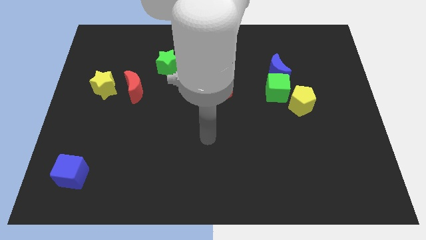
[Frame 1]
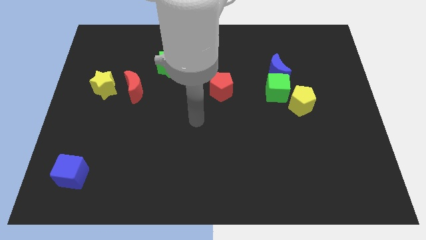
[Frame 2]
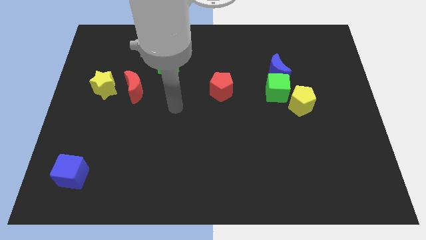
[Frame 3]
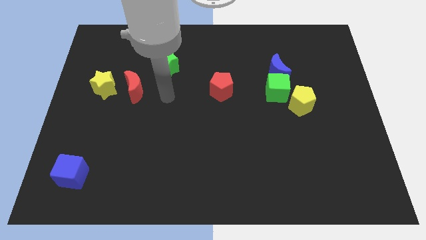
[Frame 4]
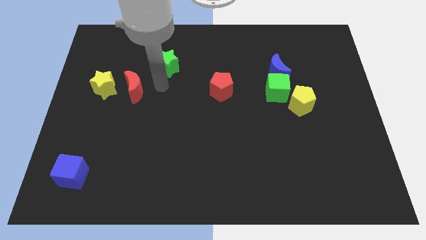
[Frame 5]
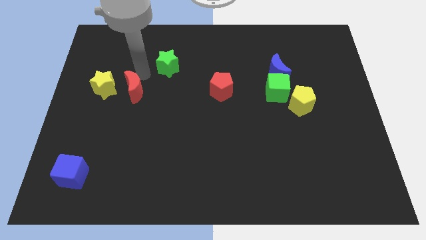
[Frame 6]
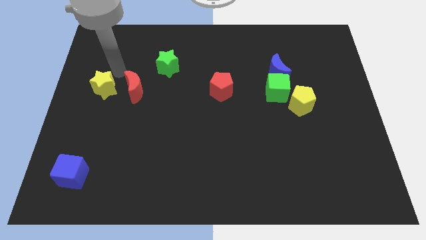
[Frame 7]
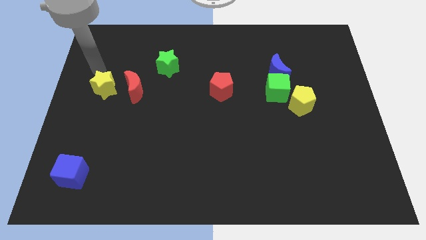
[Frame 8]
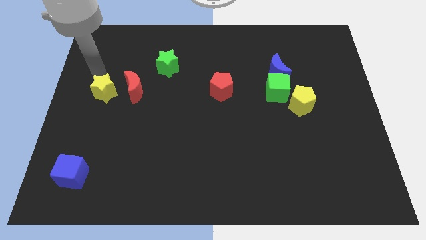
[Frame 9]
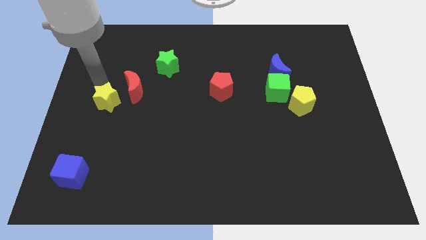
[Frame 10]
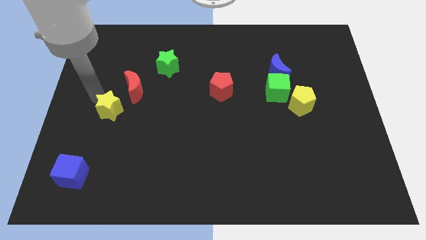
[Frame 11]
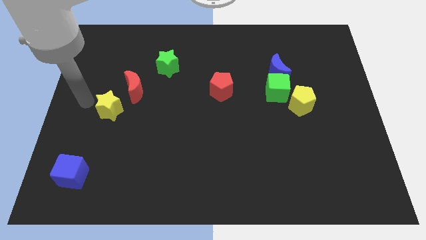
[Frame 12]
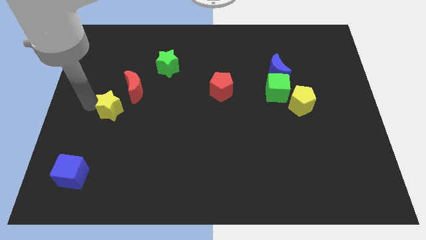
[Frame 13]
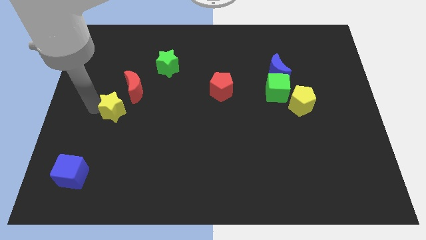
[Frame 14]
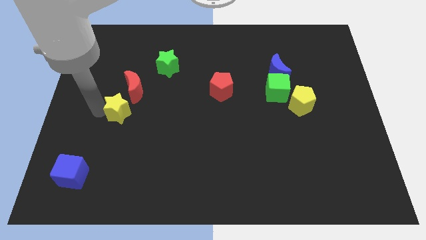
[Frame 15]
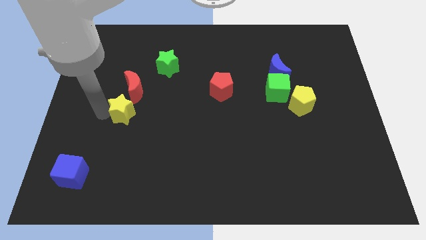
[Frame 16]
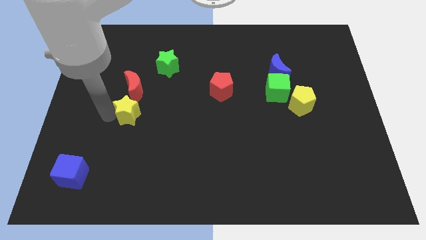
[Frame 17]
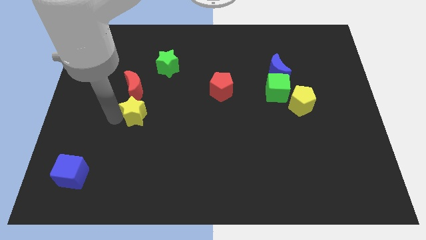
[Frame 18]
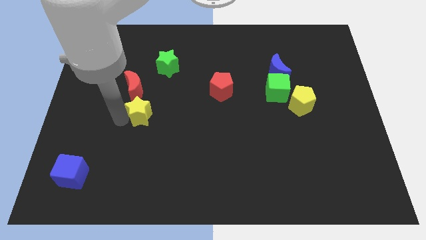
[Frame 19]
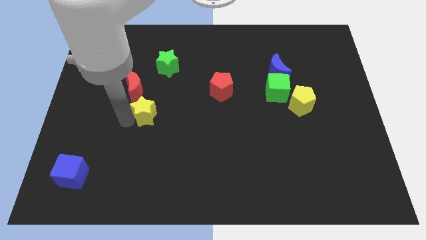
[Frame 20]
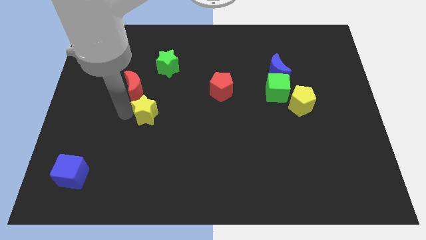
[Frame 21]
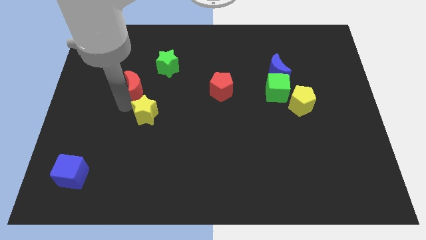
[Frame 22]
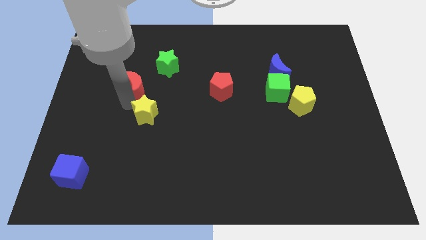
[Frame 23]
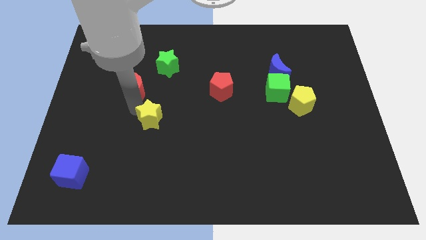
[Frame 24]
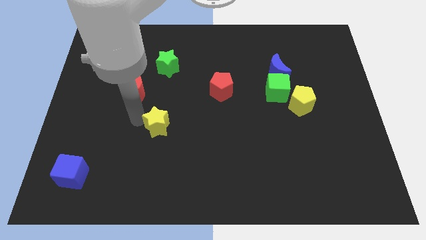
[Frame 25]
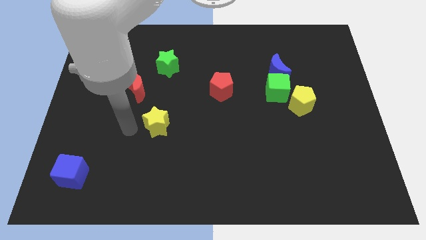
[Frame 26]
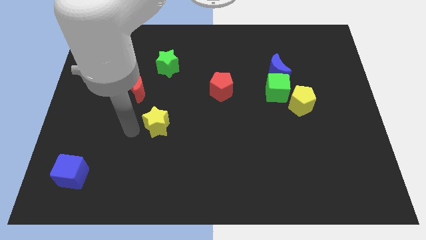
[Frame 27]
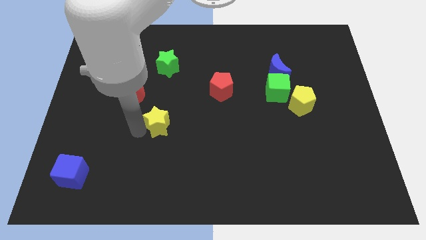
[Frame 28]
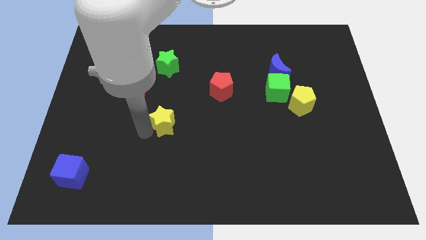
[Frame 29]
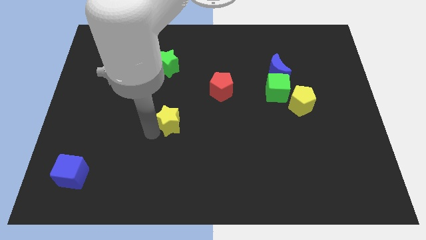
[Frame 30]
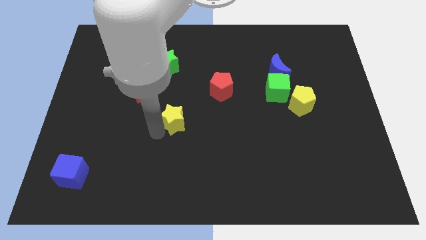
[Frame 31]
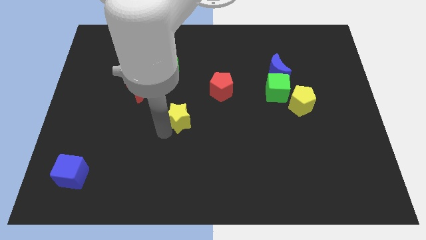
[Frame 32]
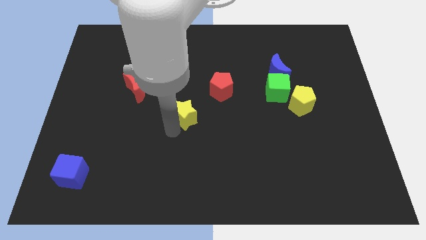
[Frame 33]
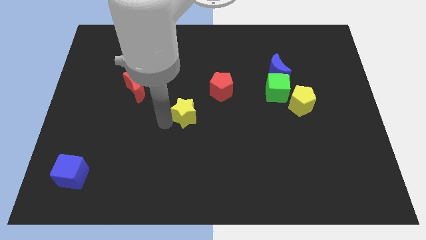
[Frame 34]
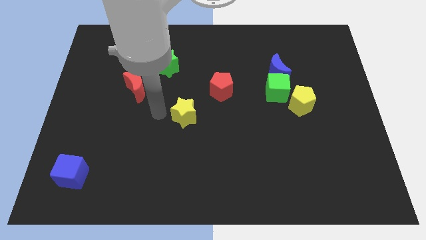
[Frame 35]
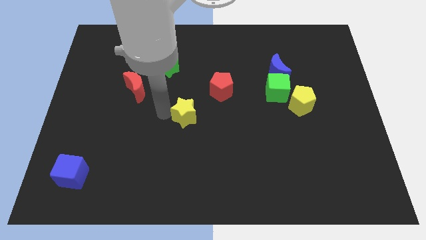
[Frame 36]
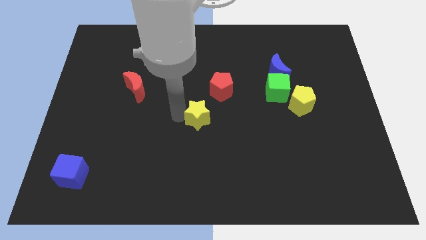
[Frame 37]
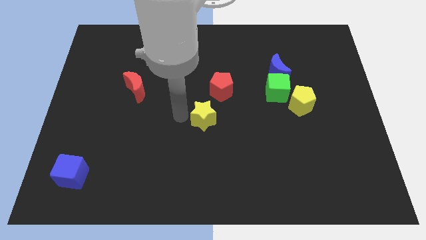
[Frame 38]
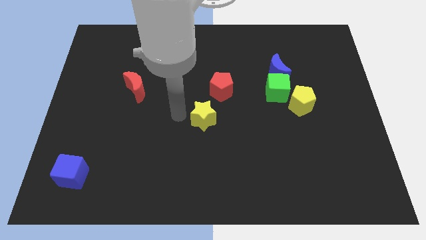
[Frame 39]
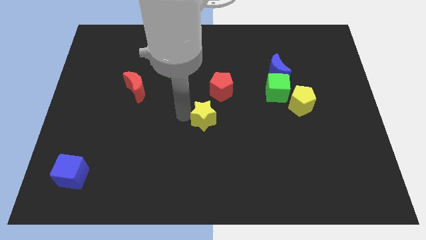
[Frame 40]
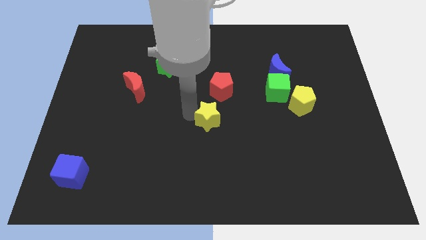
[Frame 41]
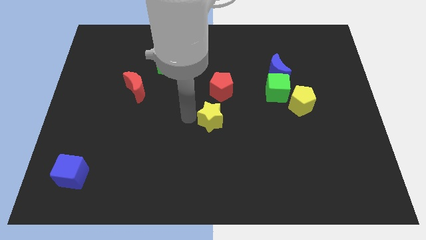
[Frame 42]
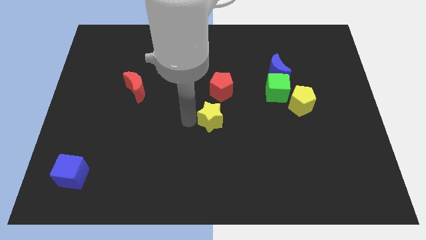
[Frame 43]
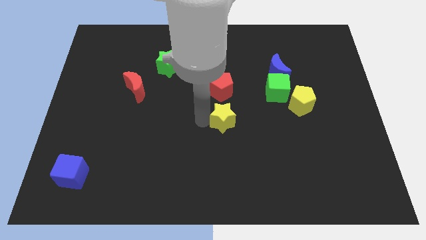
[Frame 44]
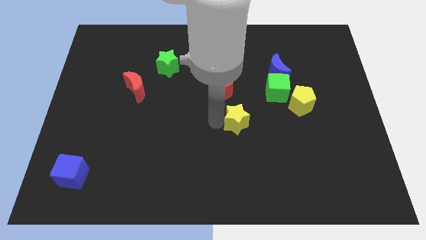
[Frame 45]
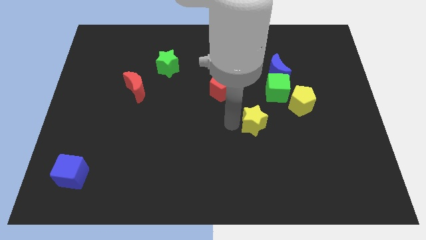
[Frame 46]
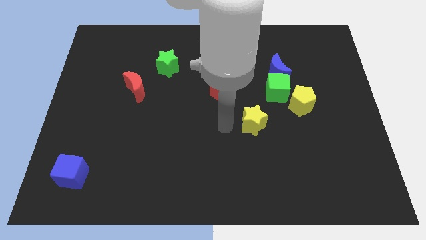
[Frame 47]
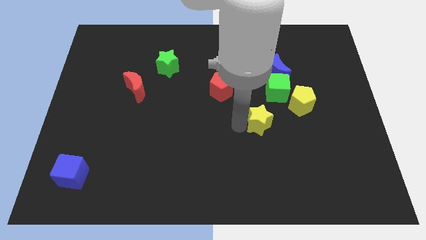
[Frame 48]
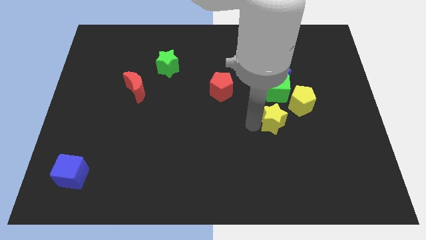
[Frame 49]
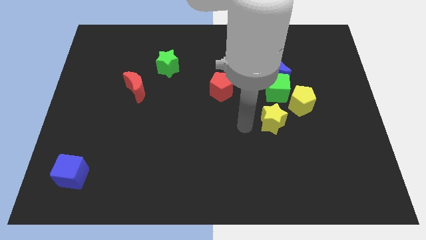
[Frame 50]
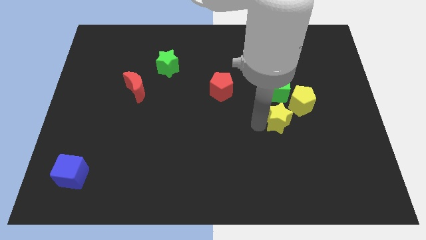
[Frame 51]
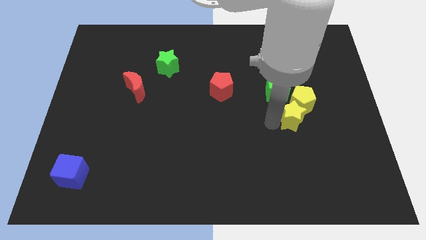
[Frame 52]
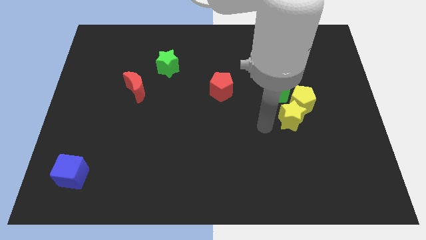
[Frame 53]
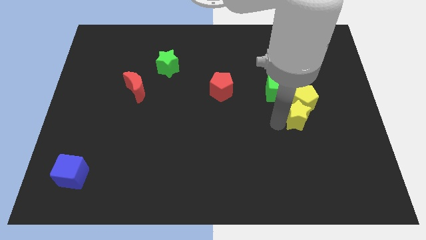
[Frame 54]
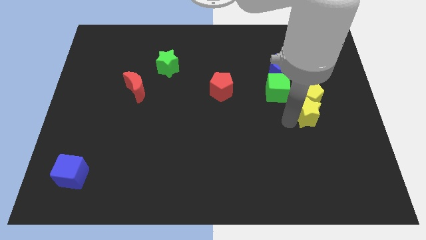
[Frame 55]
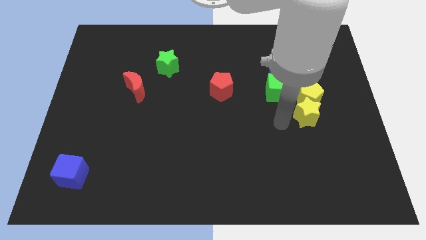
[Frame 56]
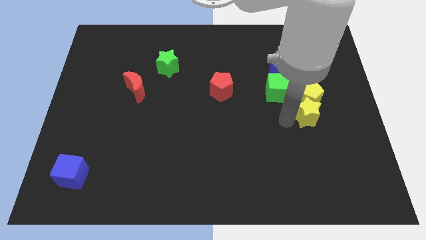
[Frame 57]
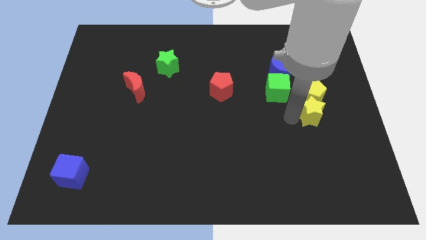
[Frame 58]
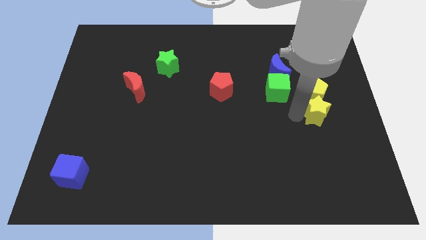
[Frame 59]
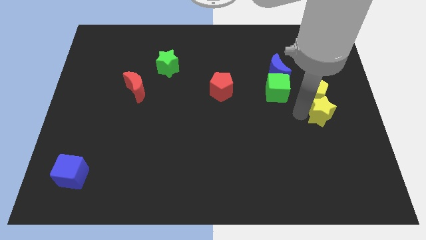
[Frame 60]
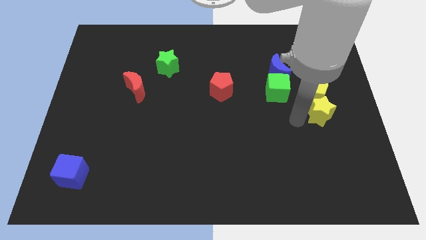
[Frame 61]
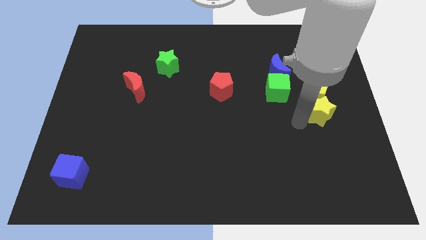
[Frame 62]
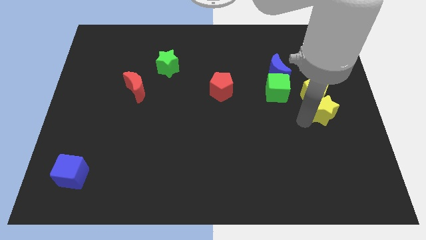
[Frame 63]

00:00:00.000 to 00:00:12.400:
put the yellow star to the center right

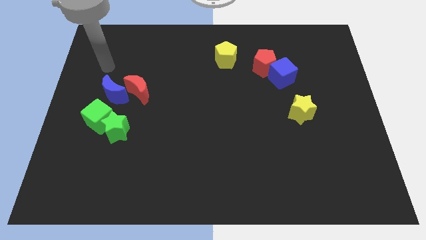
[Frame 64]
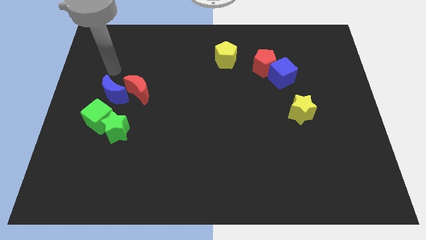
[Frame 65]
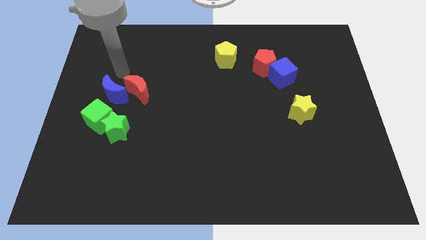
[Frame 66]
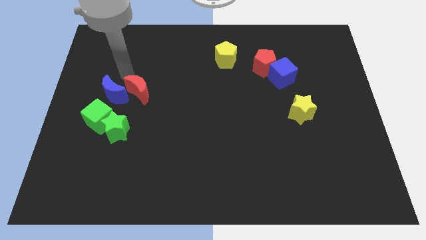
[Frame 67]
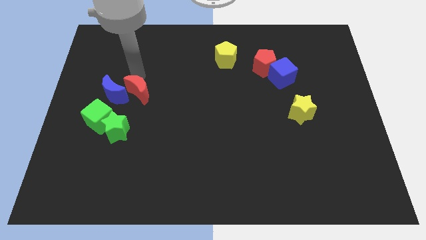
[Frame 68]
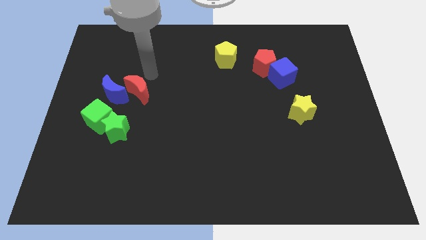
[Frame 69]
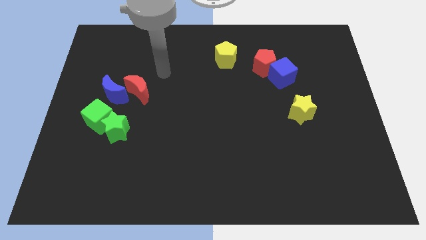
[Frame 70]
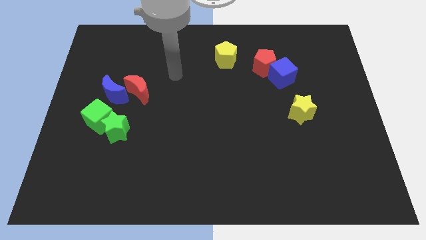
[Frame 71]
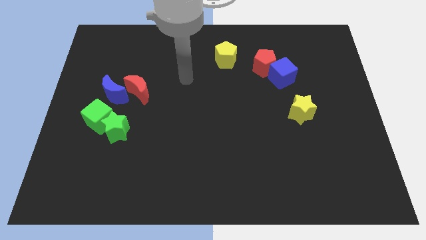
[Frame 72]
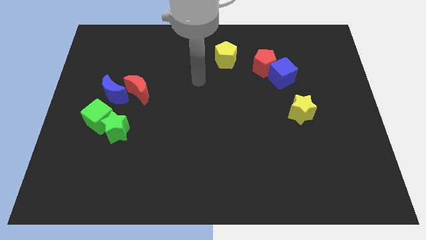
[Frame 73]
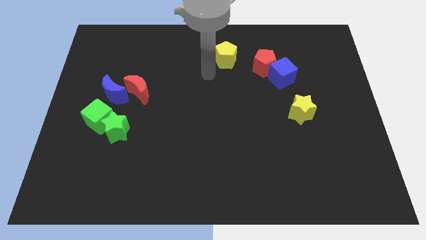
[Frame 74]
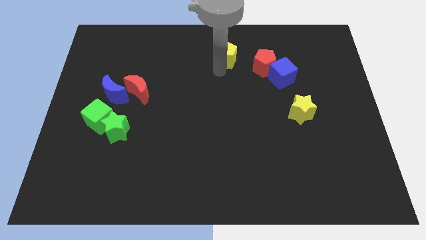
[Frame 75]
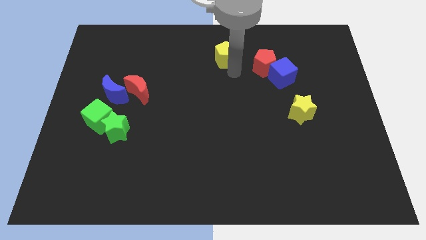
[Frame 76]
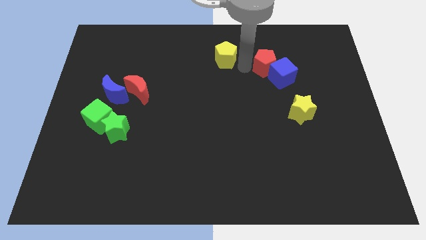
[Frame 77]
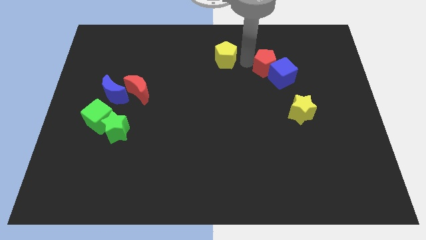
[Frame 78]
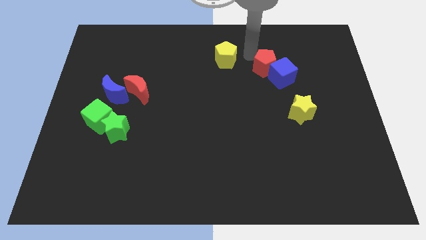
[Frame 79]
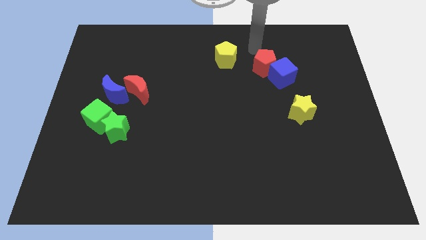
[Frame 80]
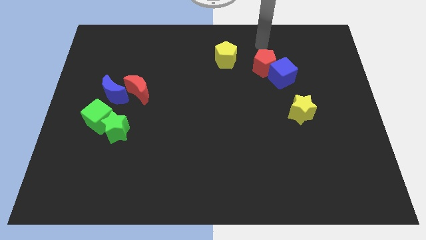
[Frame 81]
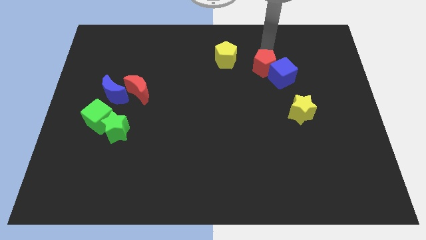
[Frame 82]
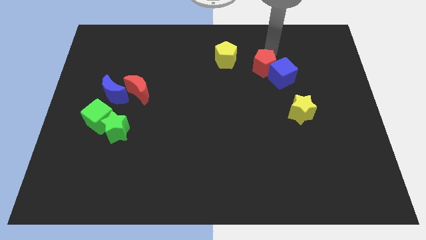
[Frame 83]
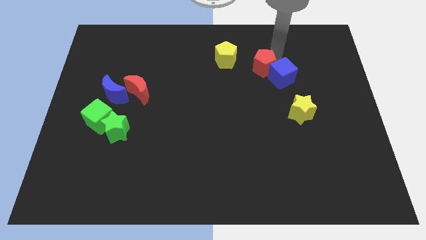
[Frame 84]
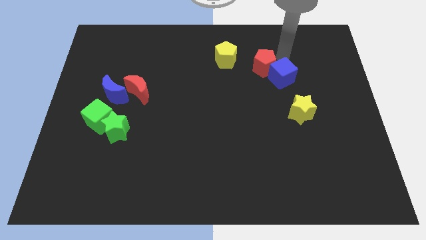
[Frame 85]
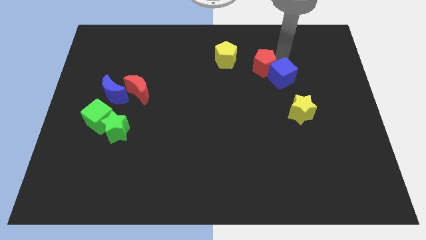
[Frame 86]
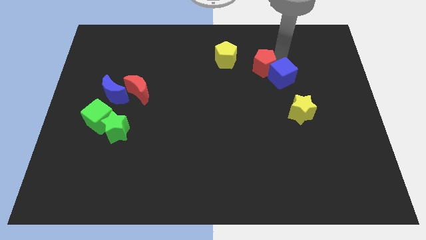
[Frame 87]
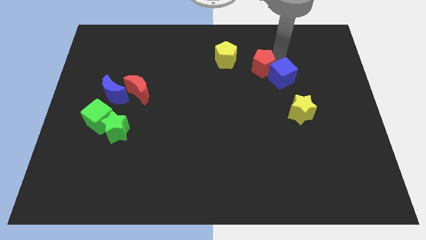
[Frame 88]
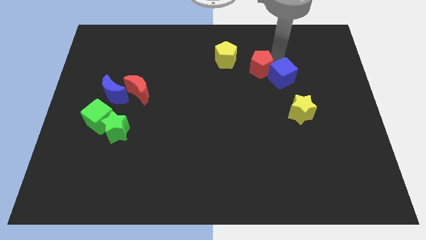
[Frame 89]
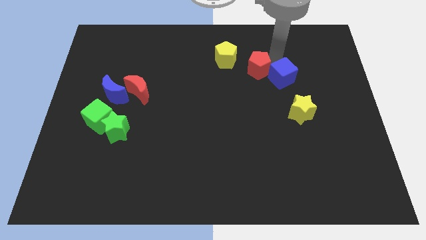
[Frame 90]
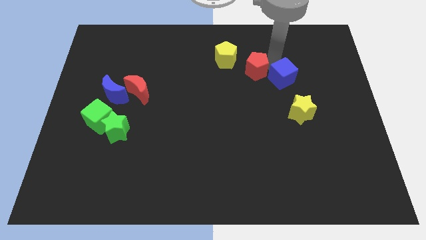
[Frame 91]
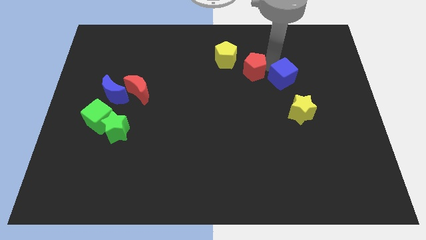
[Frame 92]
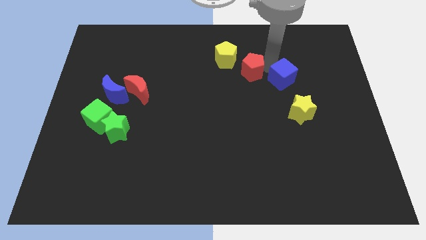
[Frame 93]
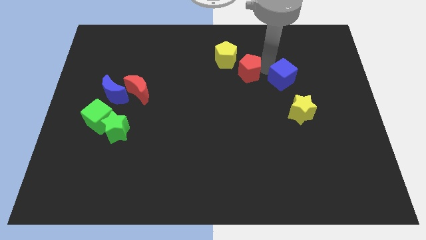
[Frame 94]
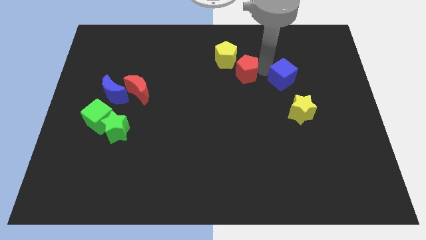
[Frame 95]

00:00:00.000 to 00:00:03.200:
slide the red pentagon to the middle of the board
